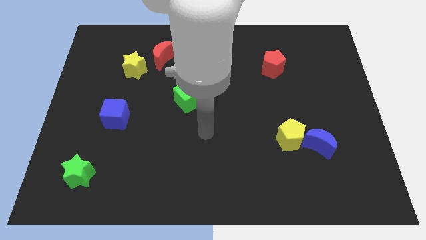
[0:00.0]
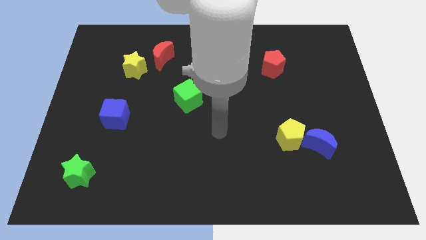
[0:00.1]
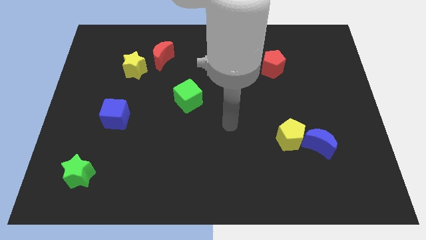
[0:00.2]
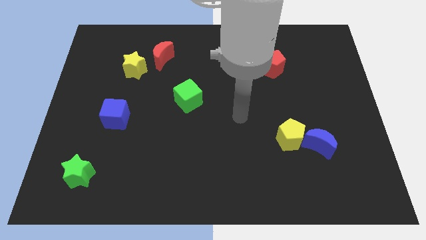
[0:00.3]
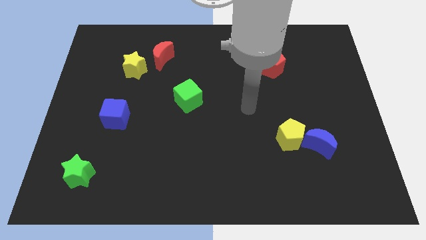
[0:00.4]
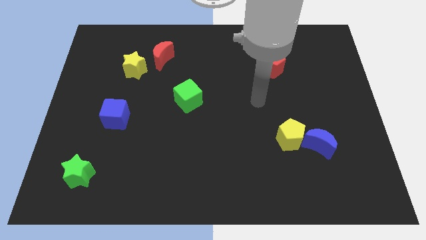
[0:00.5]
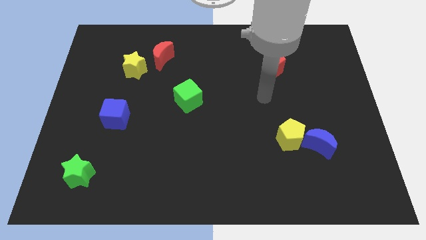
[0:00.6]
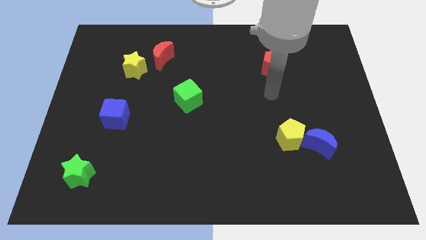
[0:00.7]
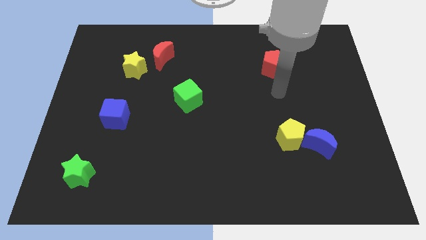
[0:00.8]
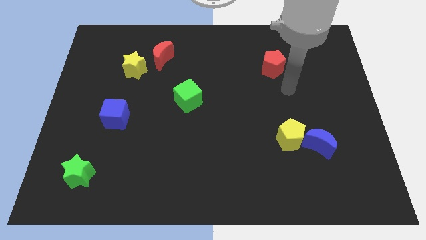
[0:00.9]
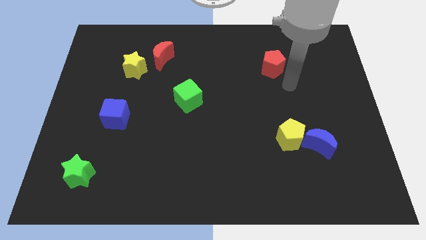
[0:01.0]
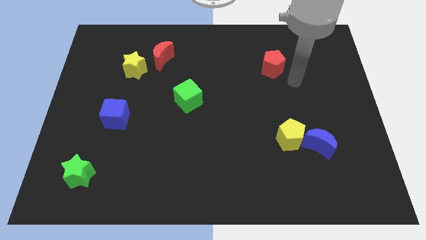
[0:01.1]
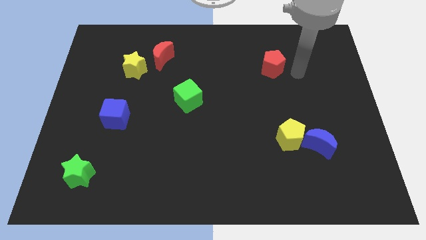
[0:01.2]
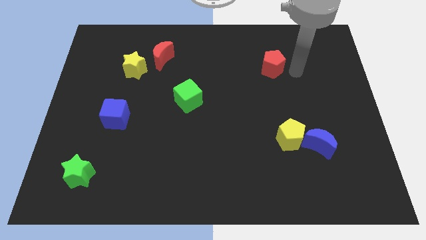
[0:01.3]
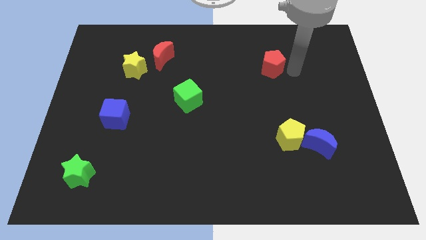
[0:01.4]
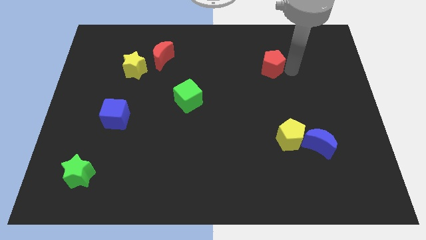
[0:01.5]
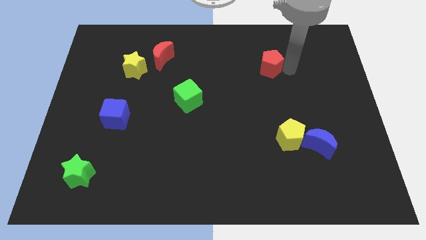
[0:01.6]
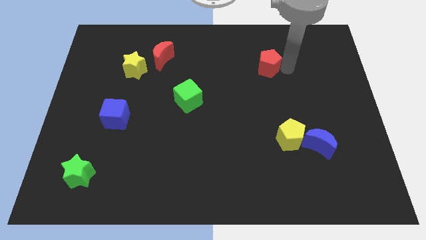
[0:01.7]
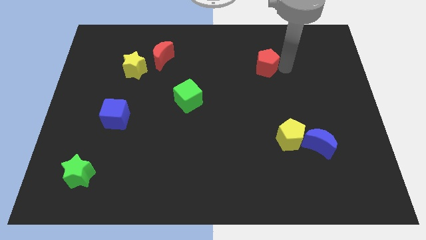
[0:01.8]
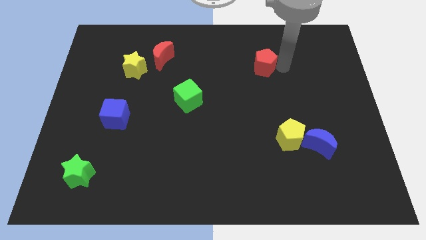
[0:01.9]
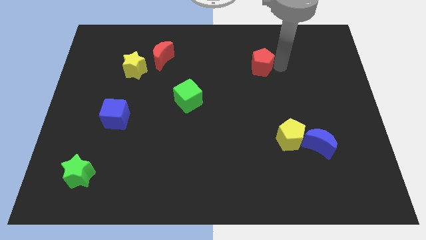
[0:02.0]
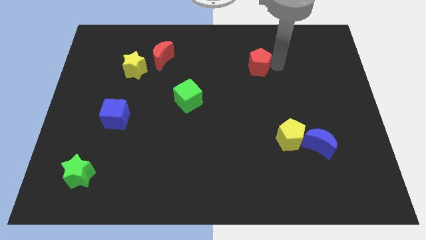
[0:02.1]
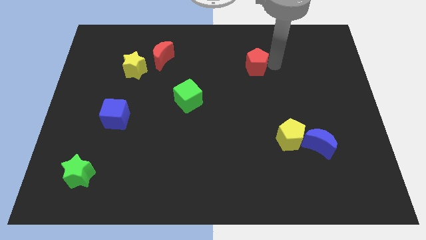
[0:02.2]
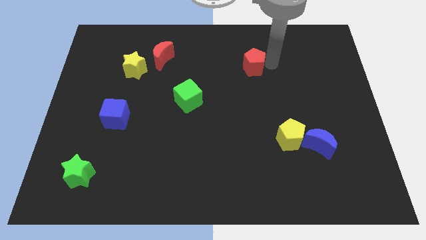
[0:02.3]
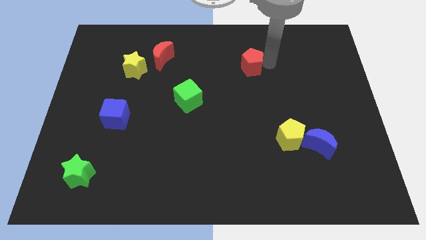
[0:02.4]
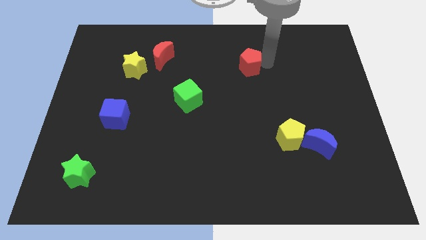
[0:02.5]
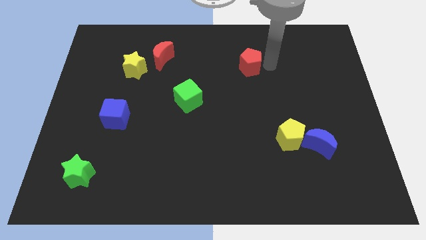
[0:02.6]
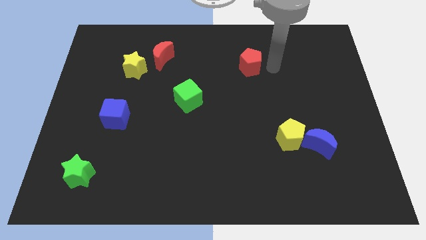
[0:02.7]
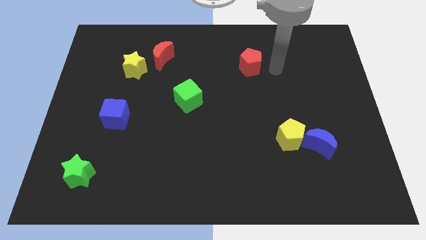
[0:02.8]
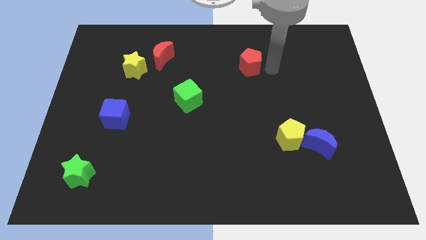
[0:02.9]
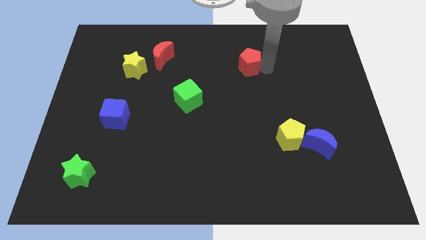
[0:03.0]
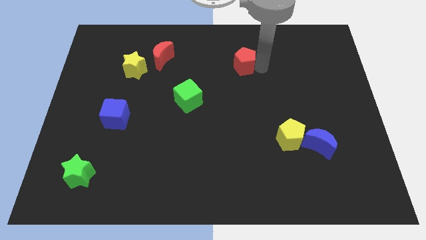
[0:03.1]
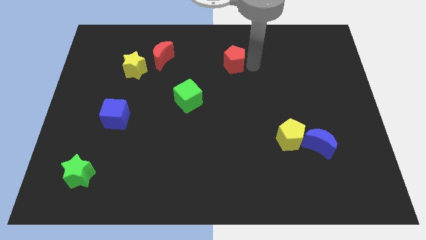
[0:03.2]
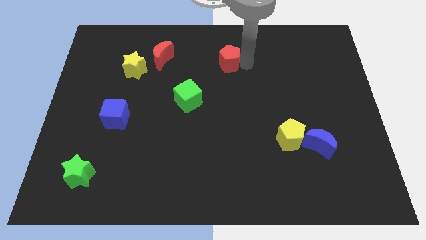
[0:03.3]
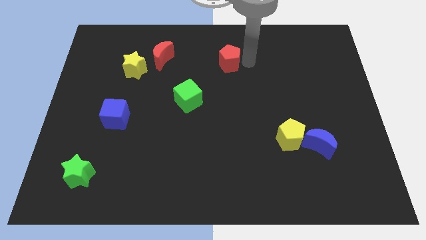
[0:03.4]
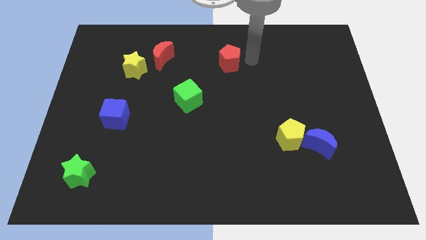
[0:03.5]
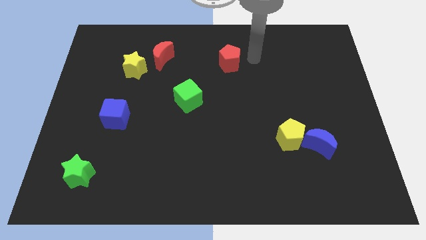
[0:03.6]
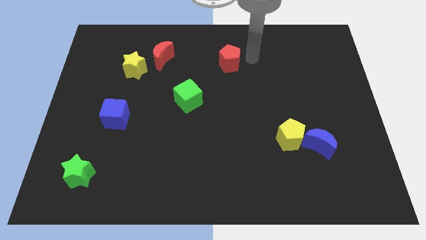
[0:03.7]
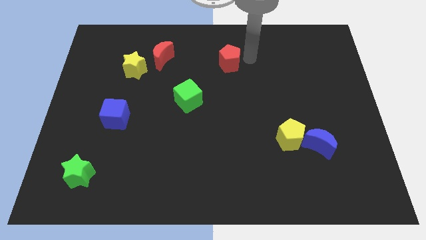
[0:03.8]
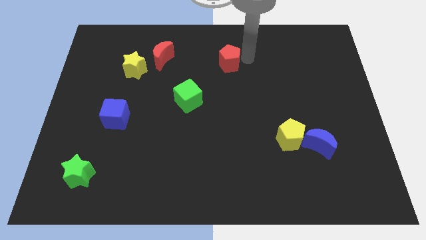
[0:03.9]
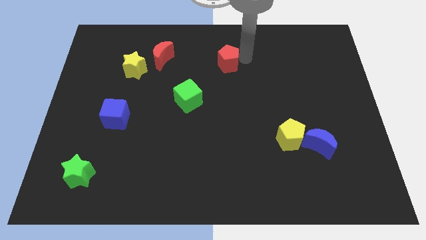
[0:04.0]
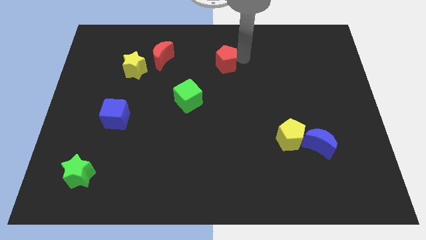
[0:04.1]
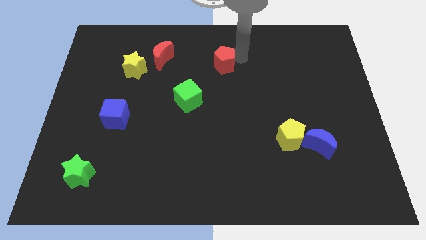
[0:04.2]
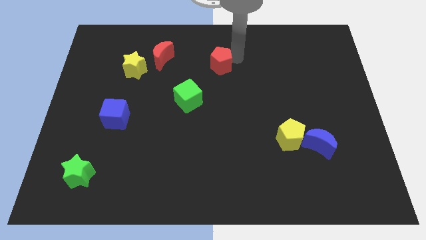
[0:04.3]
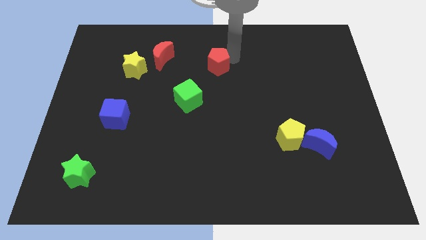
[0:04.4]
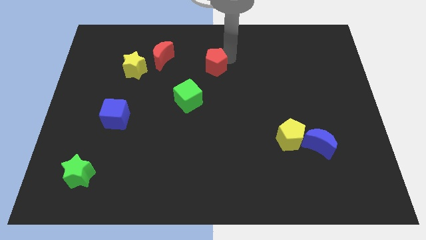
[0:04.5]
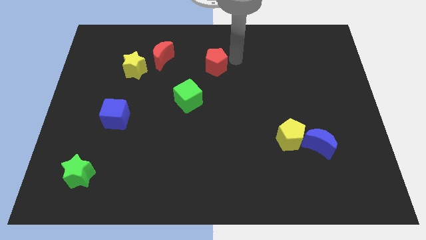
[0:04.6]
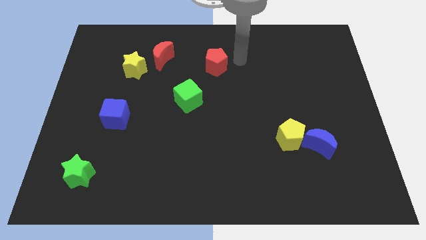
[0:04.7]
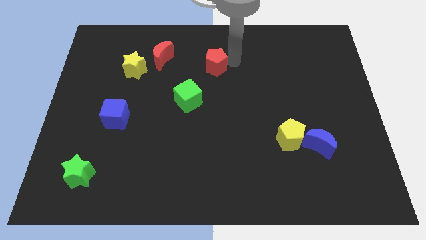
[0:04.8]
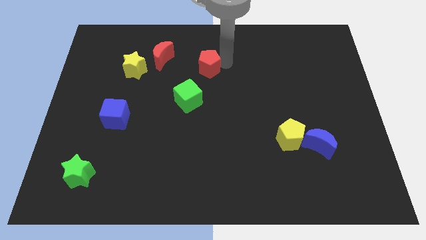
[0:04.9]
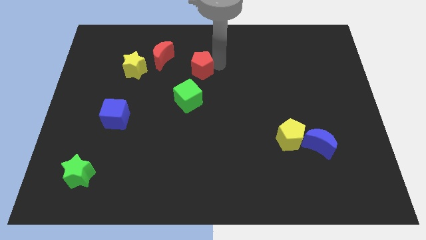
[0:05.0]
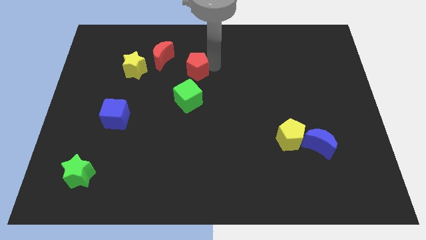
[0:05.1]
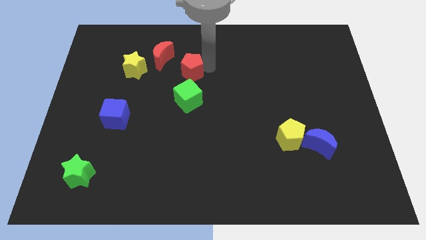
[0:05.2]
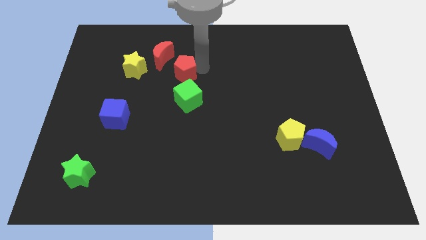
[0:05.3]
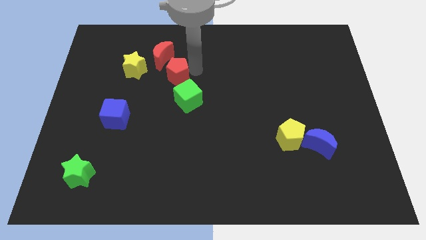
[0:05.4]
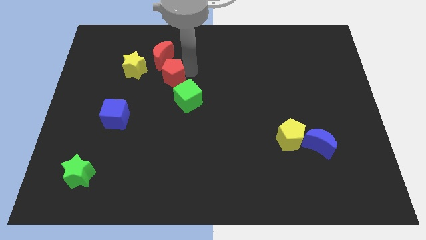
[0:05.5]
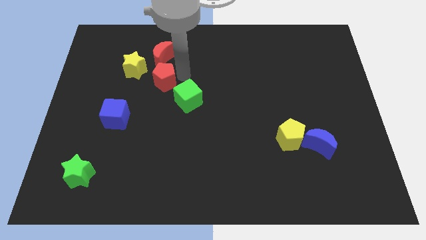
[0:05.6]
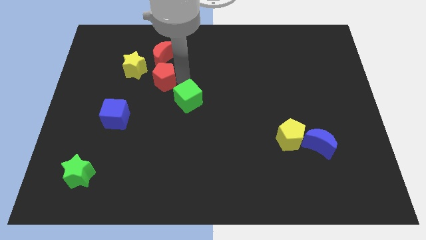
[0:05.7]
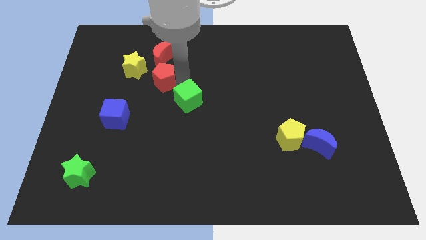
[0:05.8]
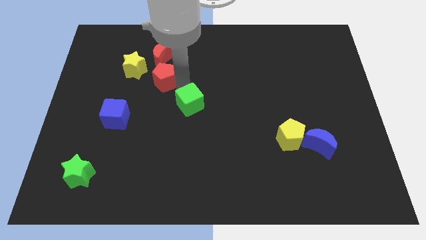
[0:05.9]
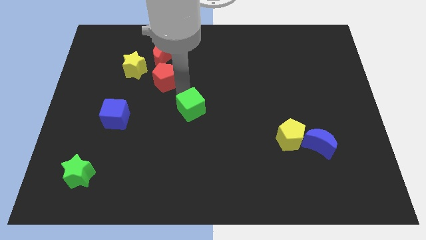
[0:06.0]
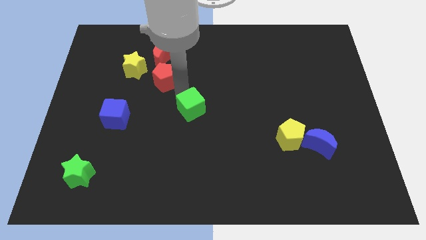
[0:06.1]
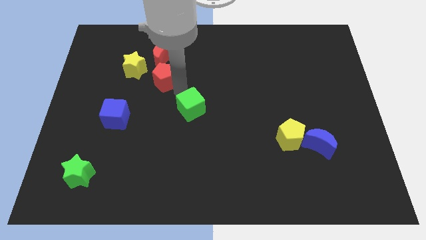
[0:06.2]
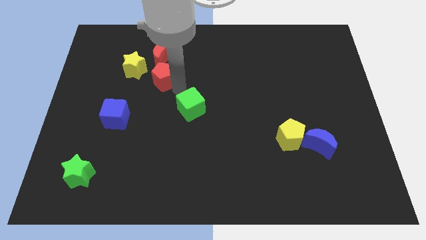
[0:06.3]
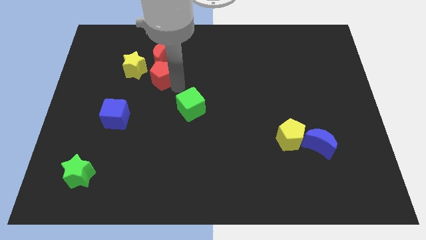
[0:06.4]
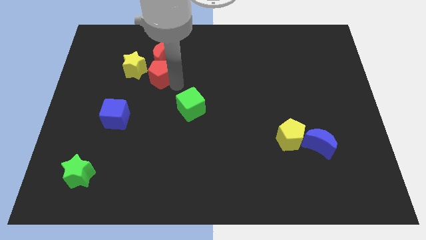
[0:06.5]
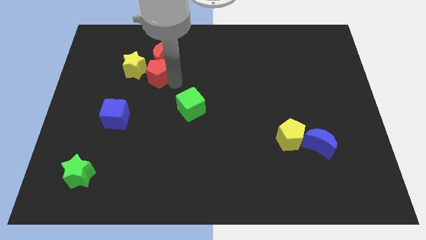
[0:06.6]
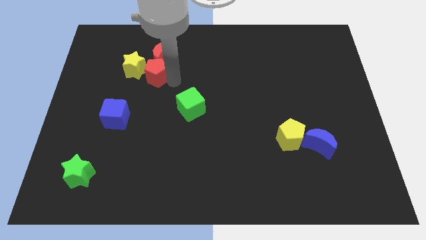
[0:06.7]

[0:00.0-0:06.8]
push the red pentagon to the yellow star
